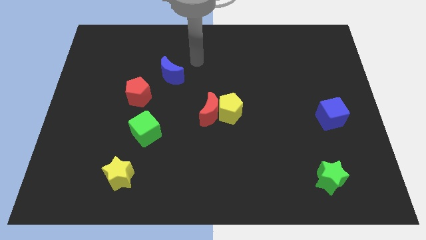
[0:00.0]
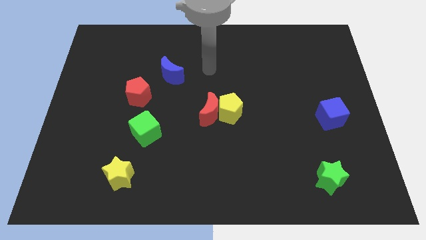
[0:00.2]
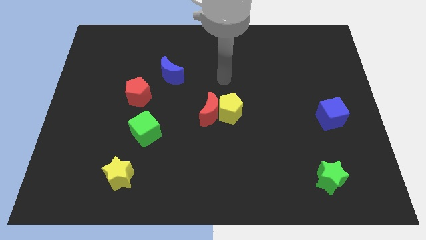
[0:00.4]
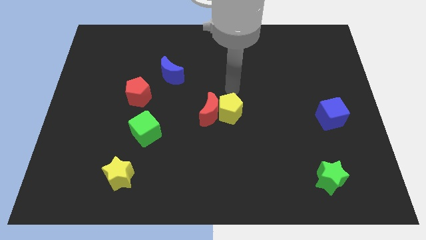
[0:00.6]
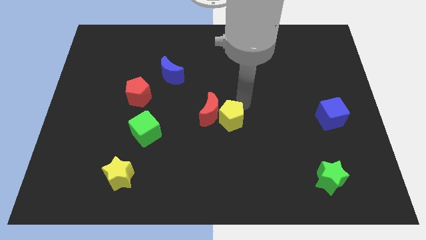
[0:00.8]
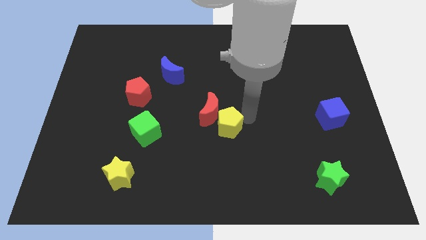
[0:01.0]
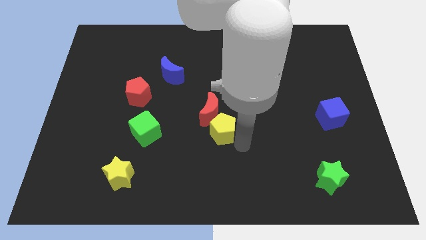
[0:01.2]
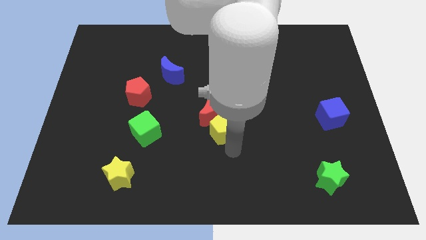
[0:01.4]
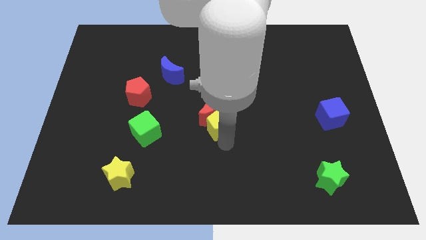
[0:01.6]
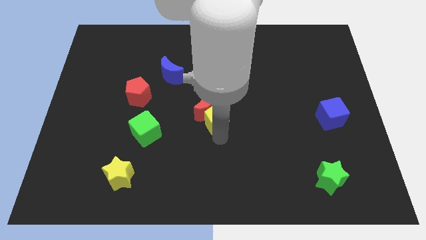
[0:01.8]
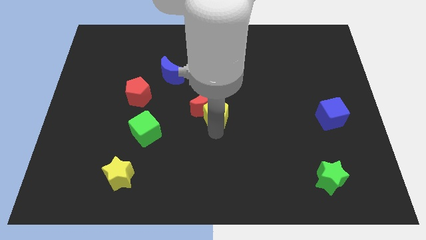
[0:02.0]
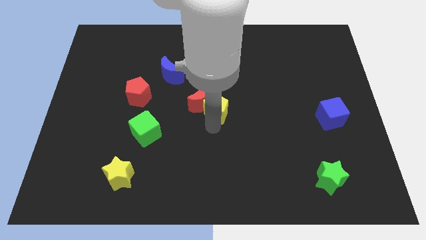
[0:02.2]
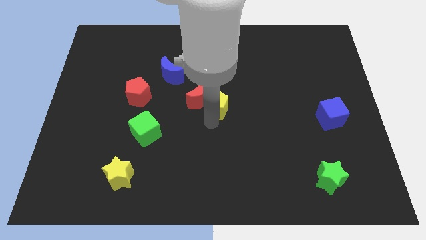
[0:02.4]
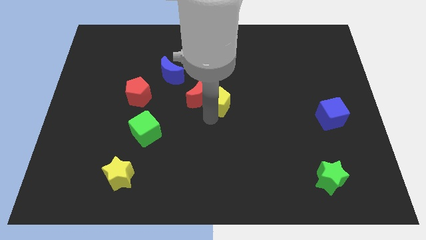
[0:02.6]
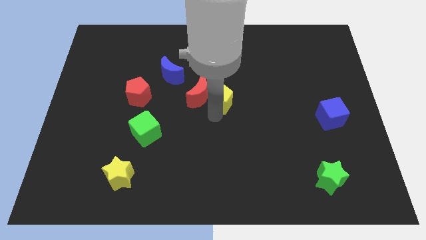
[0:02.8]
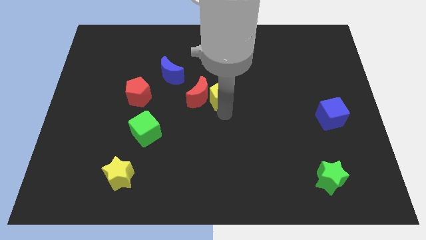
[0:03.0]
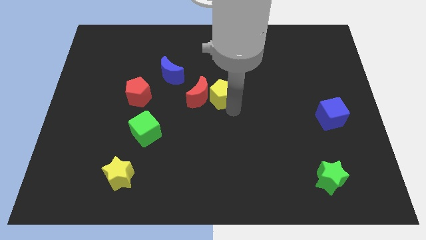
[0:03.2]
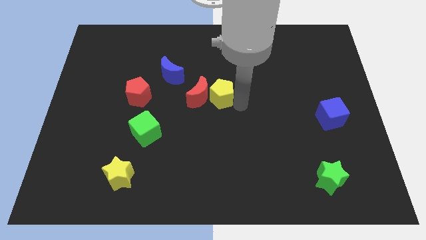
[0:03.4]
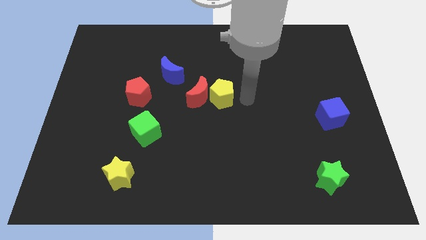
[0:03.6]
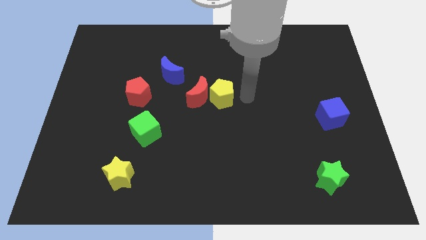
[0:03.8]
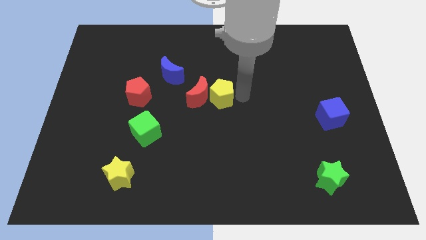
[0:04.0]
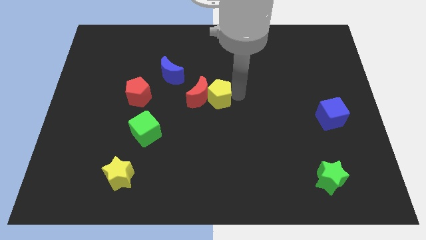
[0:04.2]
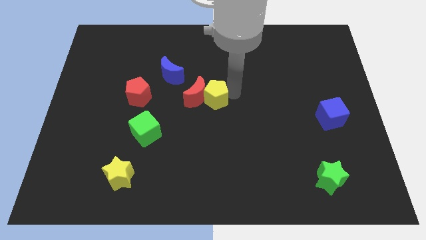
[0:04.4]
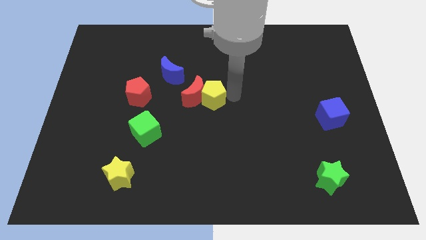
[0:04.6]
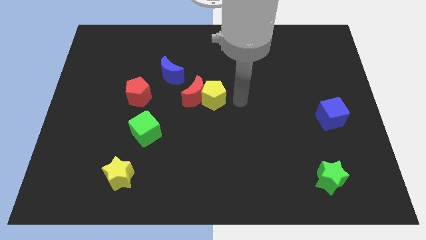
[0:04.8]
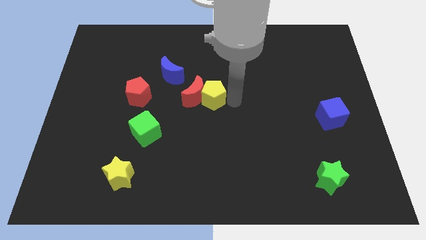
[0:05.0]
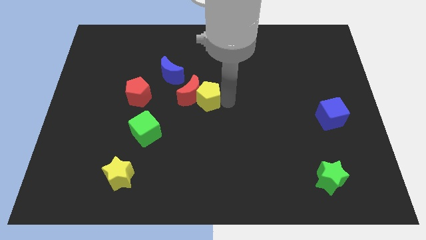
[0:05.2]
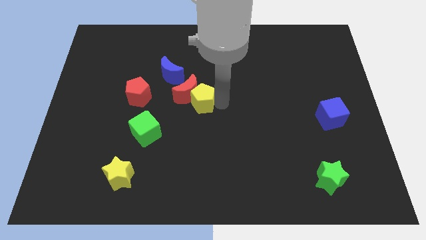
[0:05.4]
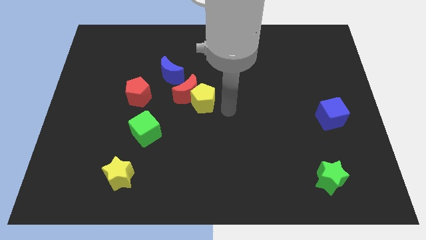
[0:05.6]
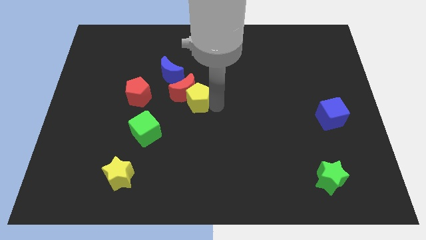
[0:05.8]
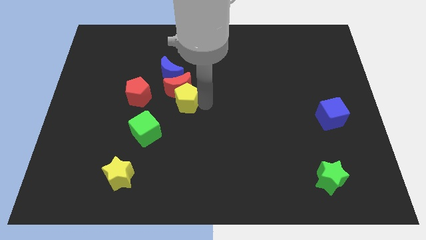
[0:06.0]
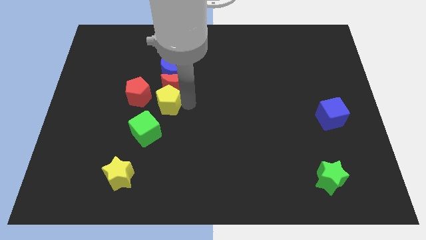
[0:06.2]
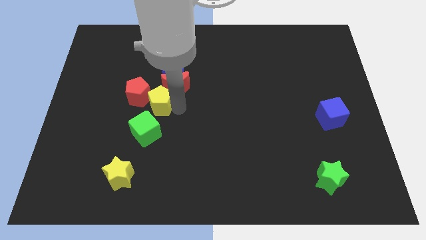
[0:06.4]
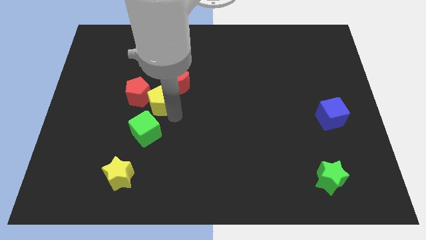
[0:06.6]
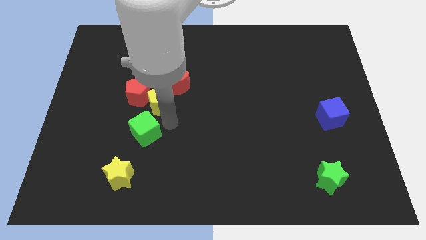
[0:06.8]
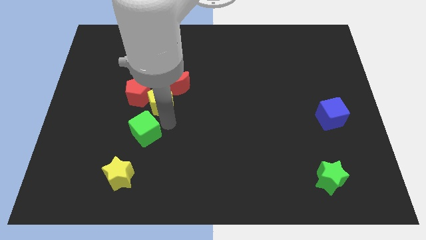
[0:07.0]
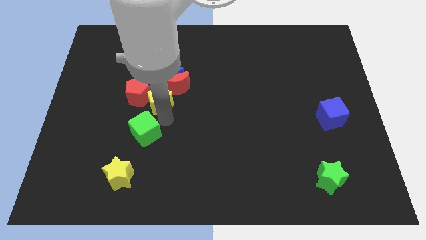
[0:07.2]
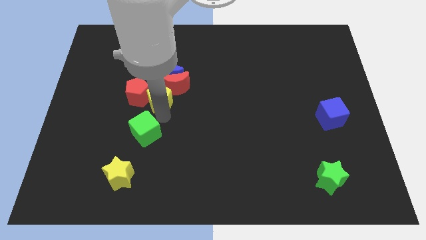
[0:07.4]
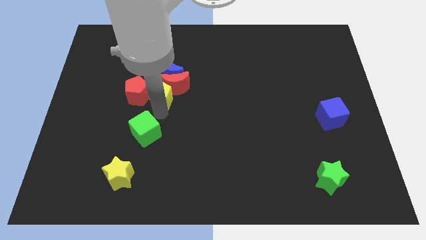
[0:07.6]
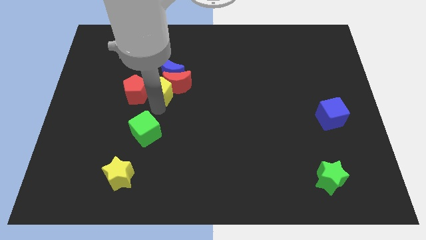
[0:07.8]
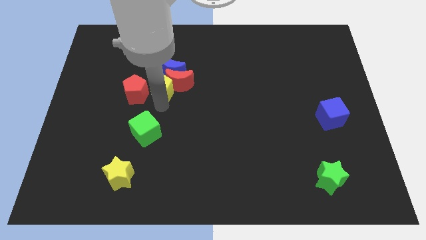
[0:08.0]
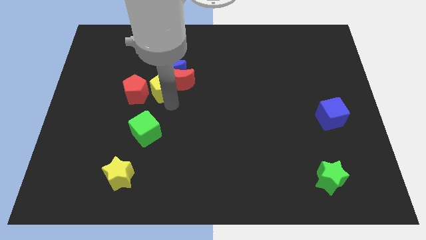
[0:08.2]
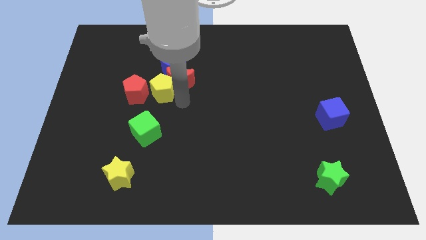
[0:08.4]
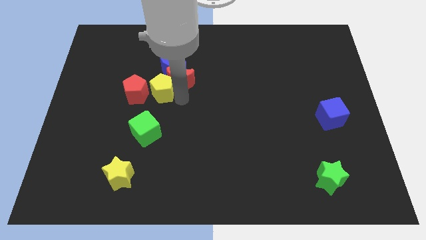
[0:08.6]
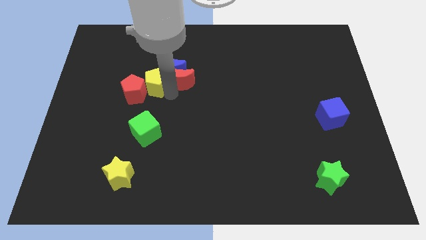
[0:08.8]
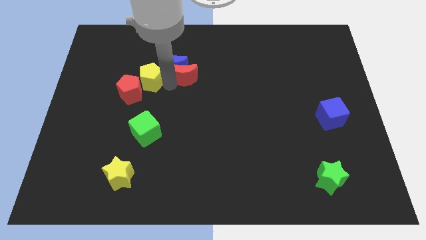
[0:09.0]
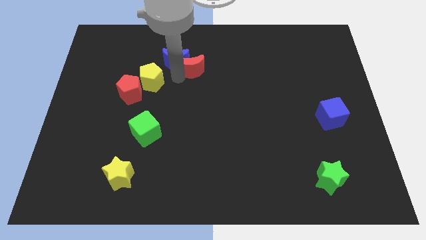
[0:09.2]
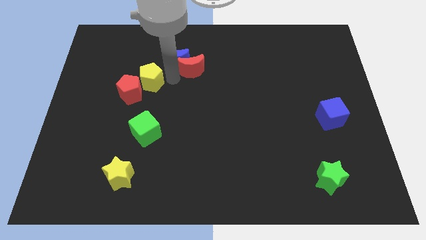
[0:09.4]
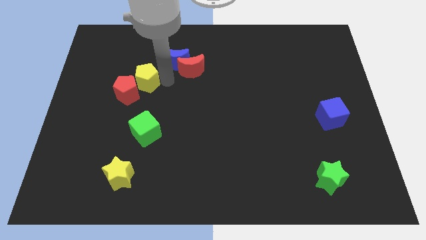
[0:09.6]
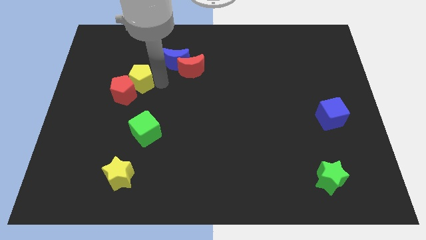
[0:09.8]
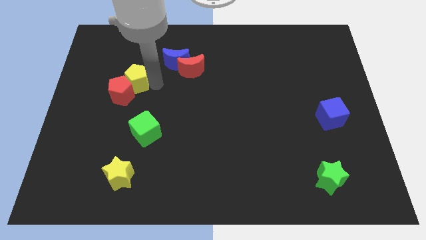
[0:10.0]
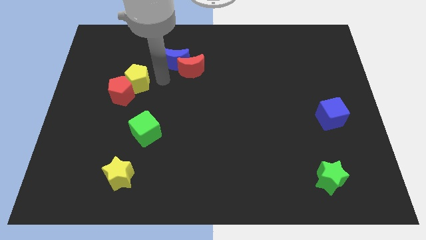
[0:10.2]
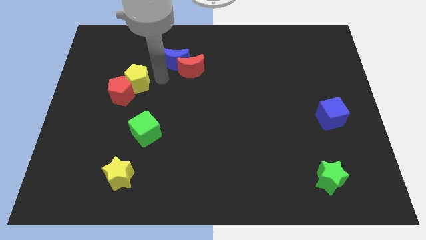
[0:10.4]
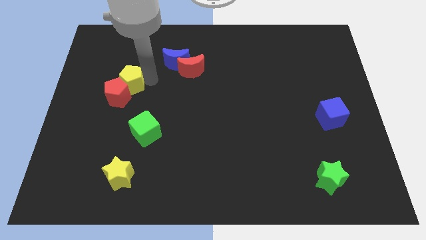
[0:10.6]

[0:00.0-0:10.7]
move the yellow pentagon to the left

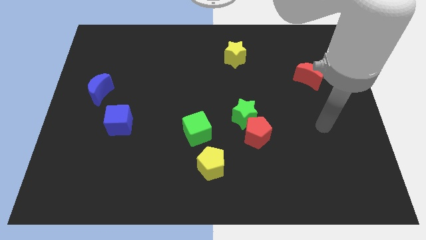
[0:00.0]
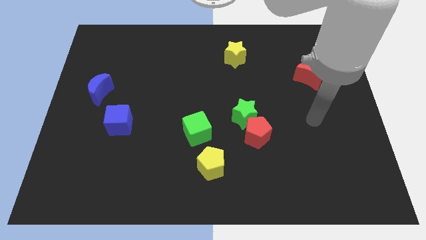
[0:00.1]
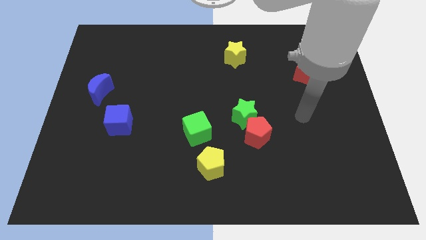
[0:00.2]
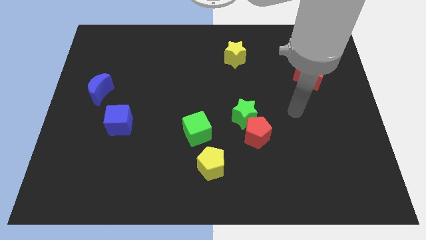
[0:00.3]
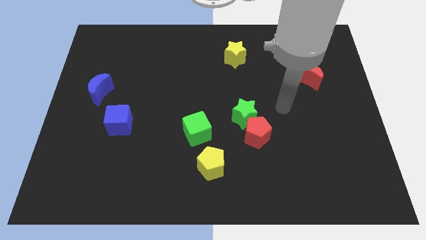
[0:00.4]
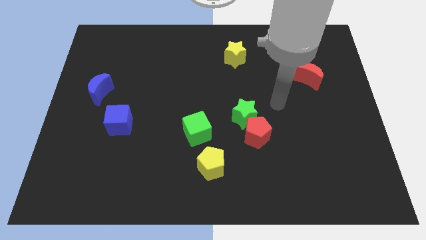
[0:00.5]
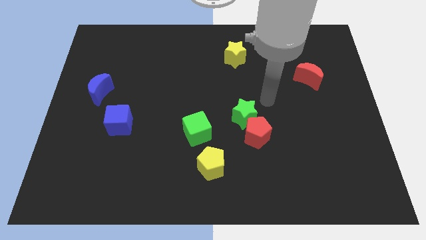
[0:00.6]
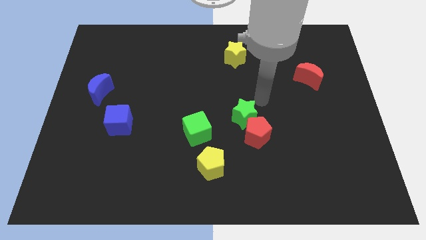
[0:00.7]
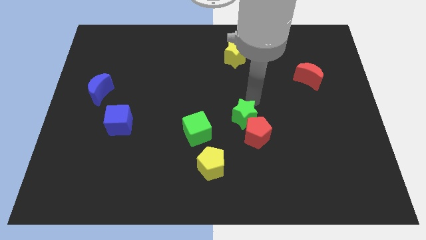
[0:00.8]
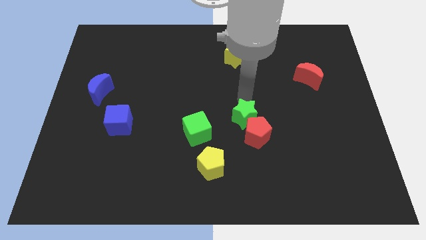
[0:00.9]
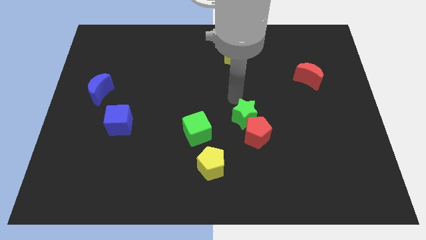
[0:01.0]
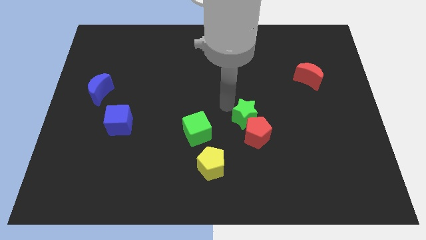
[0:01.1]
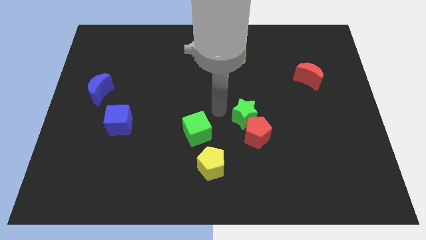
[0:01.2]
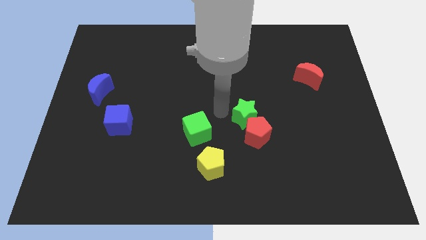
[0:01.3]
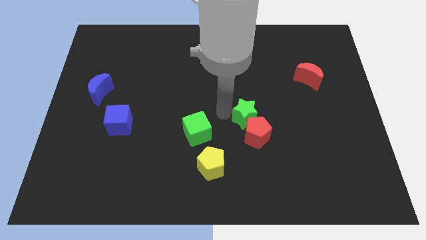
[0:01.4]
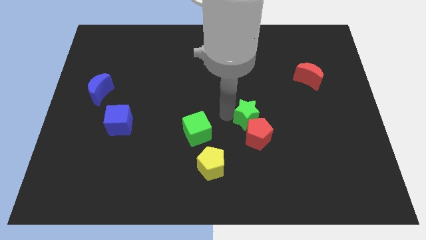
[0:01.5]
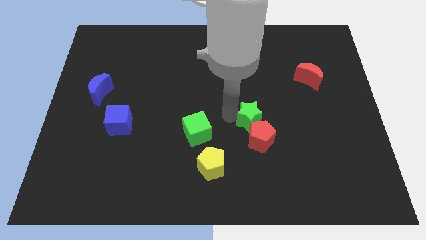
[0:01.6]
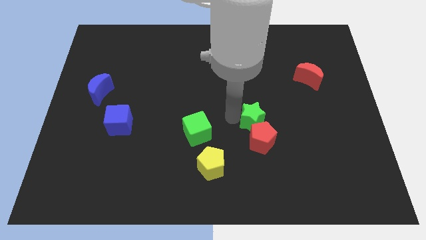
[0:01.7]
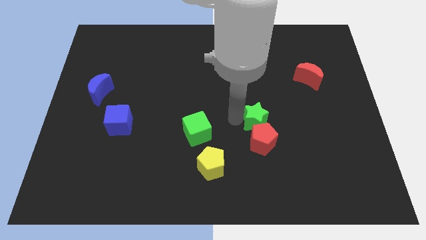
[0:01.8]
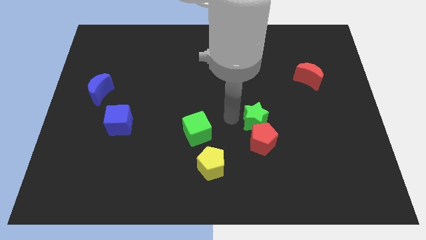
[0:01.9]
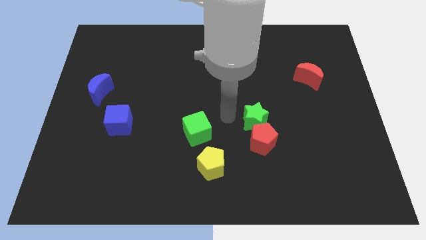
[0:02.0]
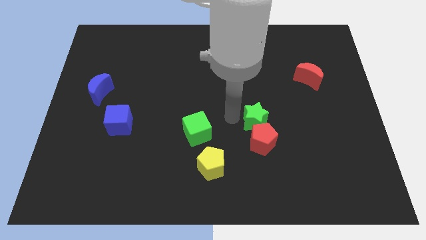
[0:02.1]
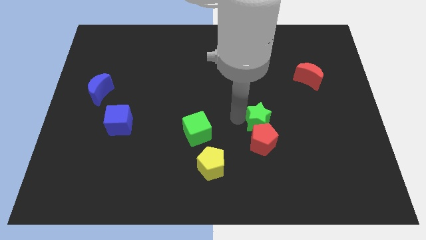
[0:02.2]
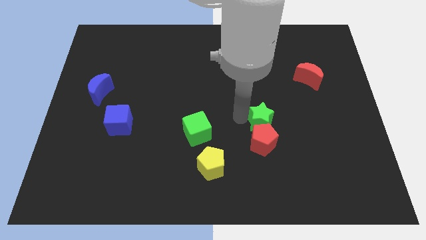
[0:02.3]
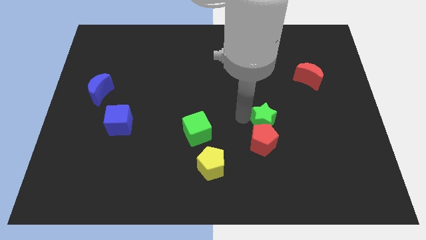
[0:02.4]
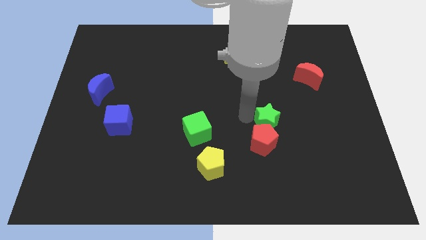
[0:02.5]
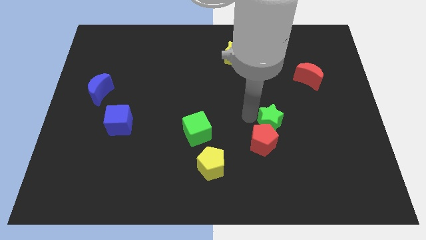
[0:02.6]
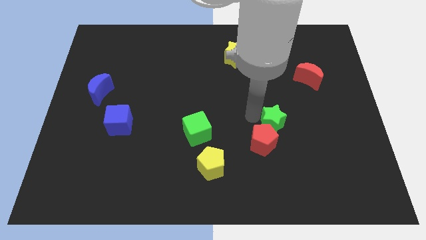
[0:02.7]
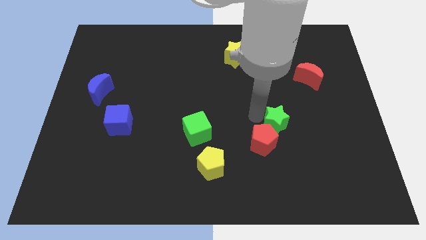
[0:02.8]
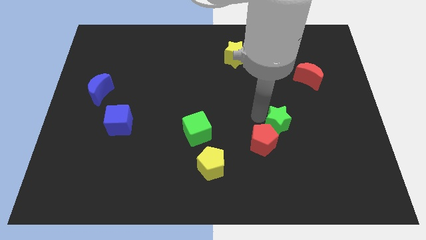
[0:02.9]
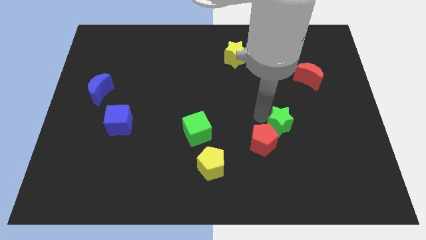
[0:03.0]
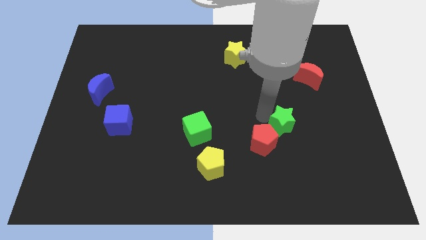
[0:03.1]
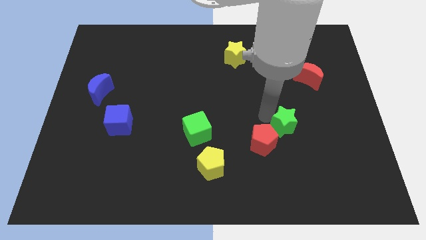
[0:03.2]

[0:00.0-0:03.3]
slide the green star down and then right a little
